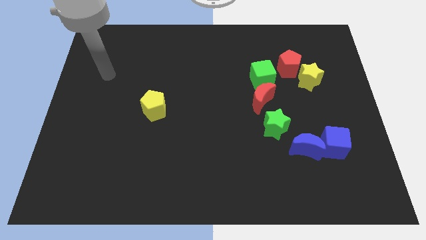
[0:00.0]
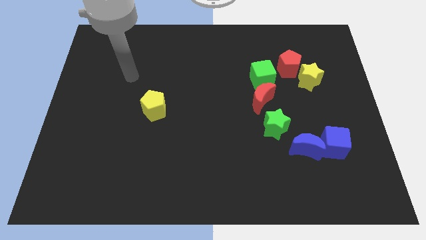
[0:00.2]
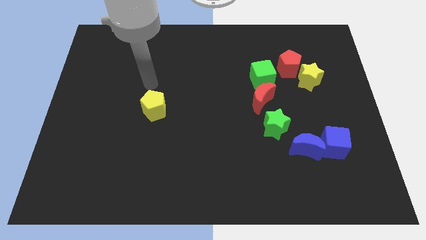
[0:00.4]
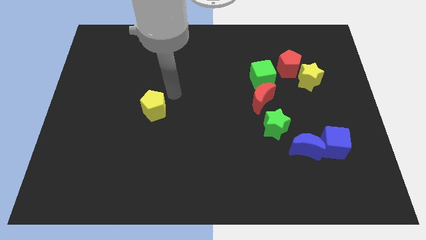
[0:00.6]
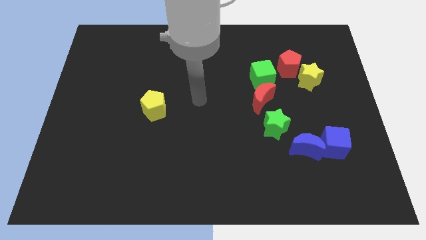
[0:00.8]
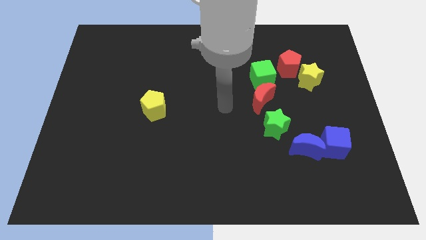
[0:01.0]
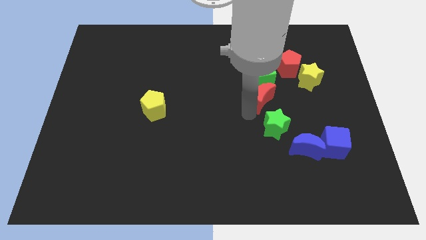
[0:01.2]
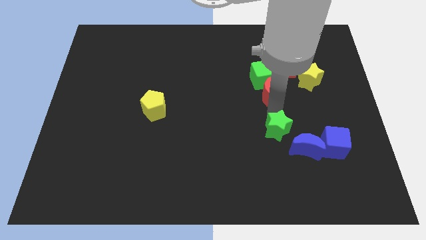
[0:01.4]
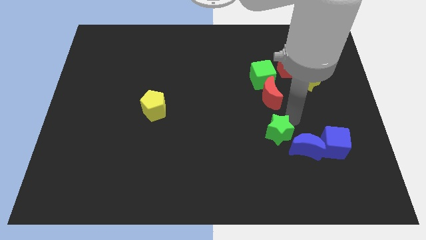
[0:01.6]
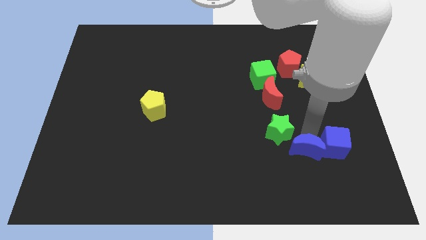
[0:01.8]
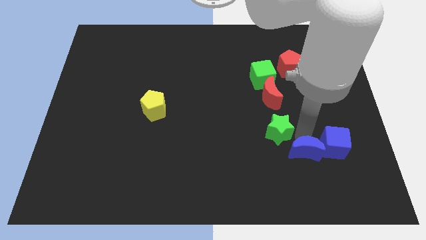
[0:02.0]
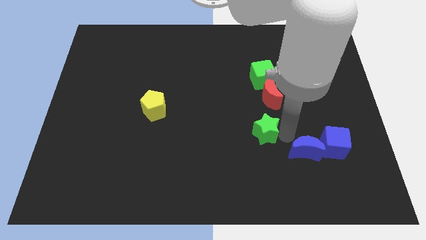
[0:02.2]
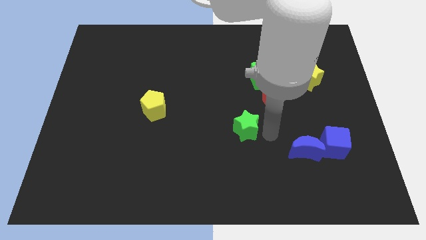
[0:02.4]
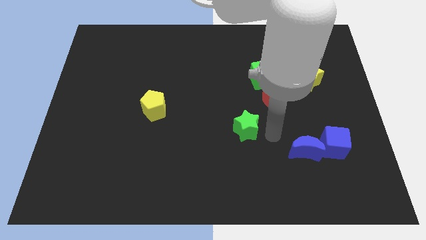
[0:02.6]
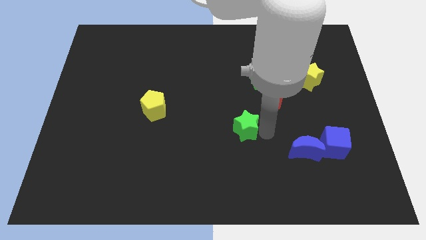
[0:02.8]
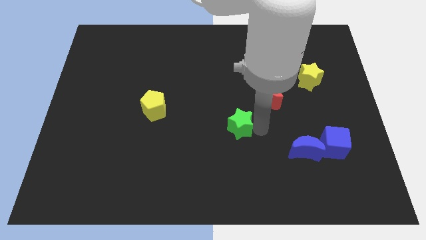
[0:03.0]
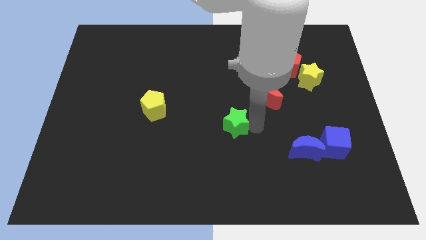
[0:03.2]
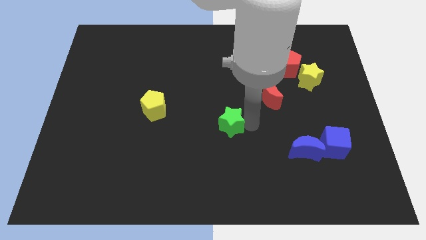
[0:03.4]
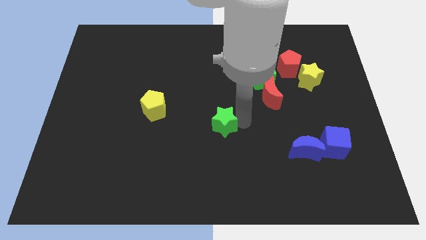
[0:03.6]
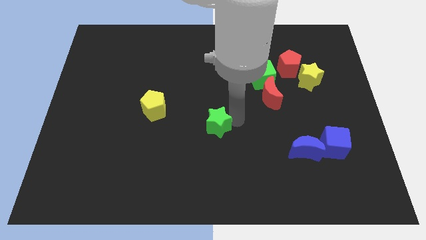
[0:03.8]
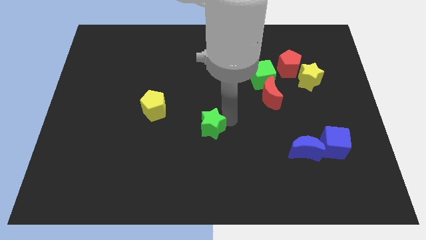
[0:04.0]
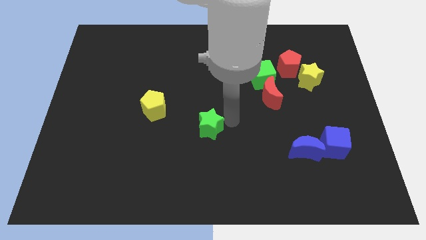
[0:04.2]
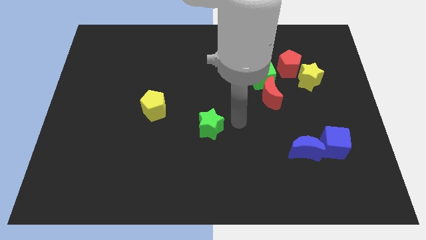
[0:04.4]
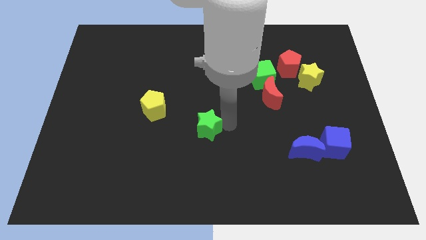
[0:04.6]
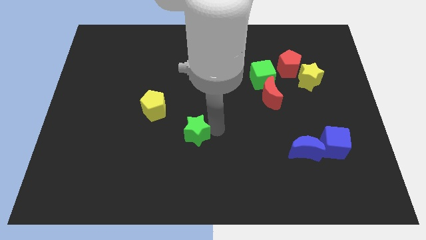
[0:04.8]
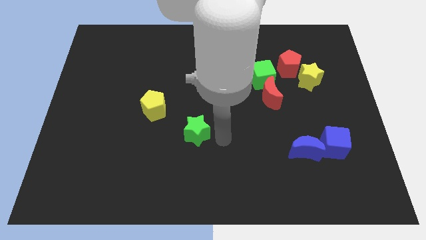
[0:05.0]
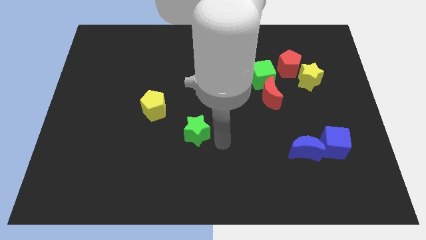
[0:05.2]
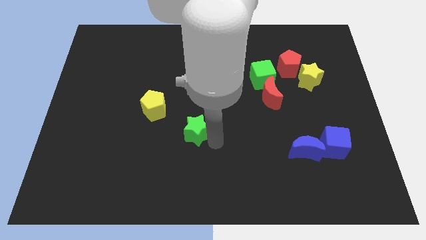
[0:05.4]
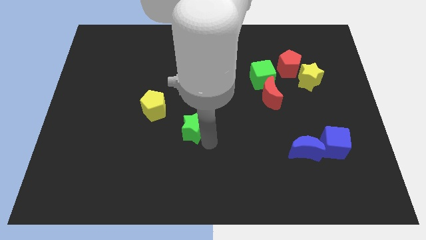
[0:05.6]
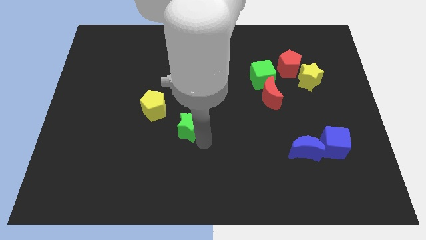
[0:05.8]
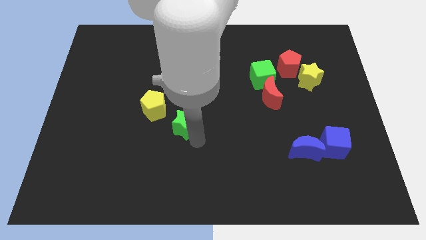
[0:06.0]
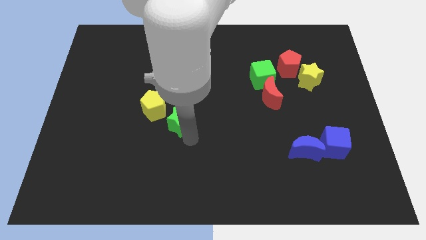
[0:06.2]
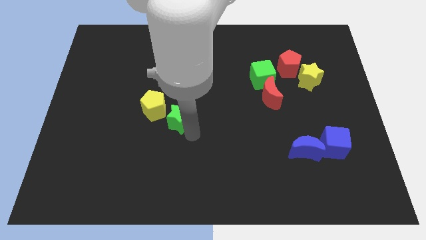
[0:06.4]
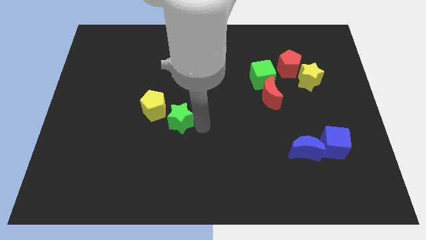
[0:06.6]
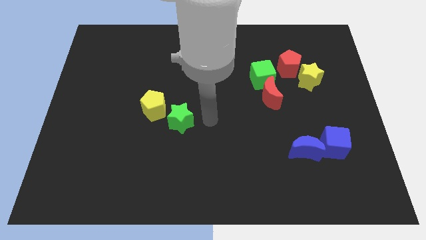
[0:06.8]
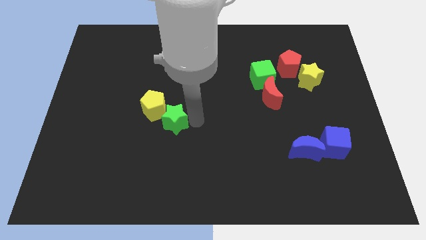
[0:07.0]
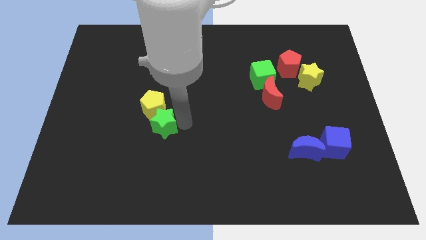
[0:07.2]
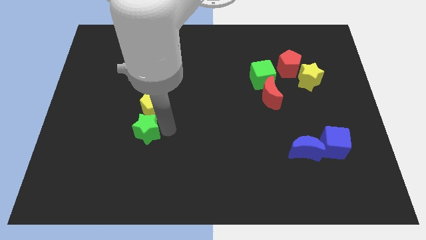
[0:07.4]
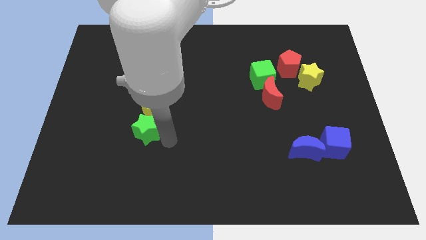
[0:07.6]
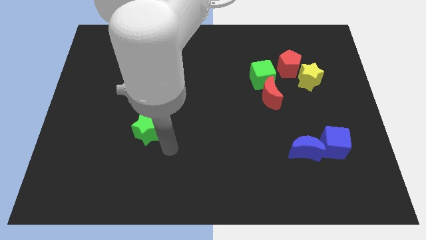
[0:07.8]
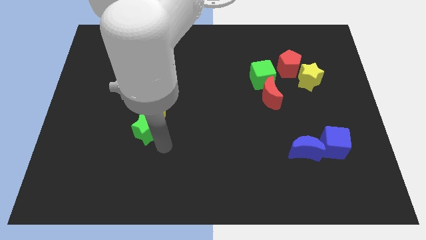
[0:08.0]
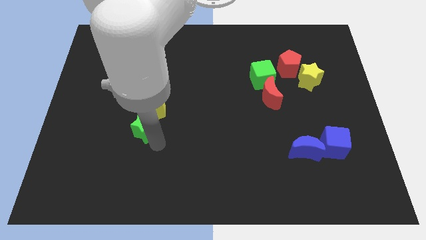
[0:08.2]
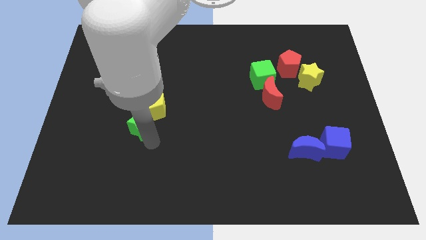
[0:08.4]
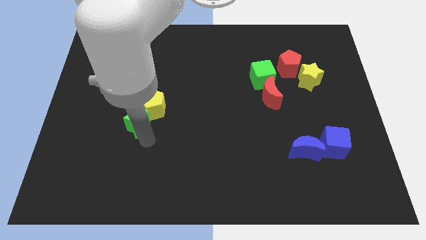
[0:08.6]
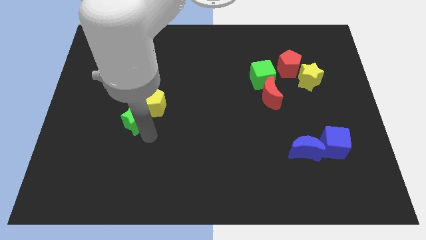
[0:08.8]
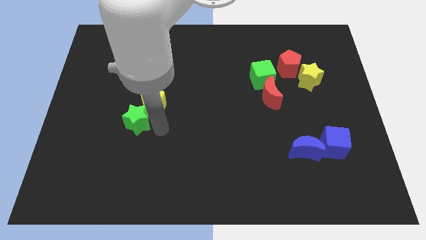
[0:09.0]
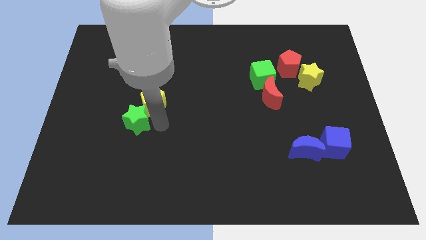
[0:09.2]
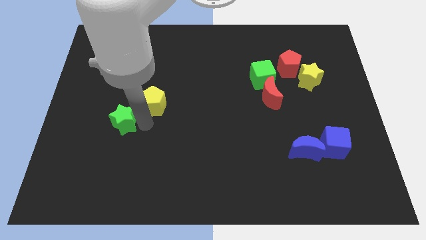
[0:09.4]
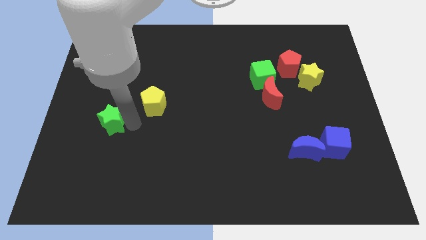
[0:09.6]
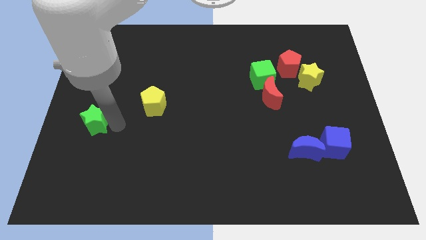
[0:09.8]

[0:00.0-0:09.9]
push the green star to the center left

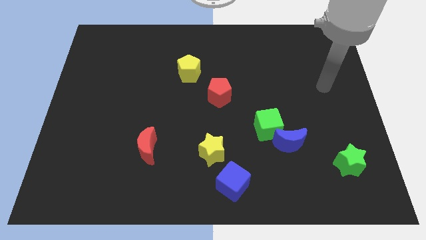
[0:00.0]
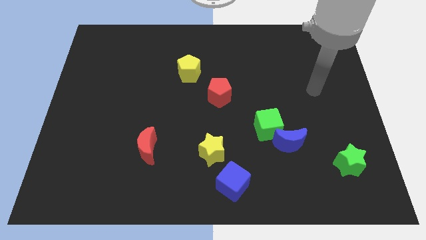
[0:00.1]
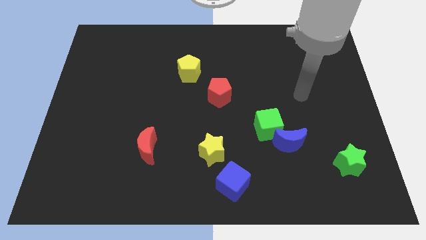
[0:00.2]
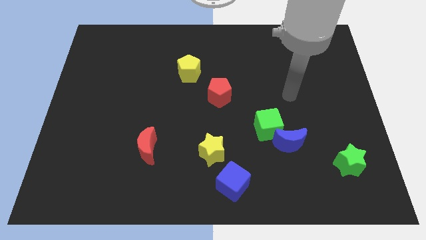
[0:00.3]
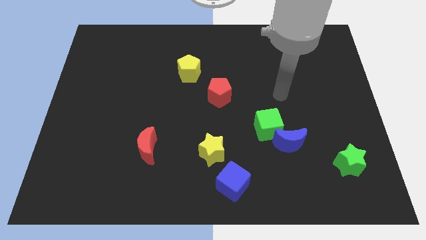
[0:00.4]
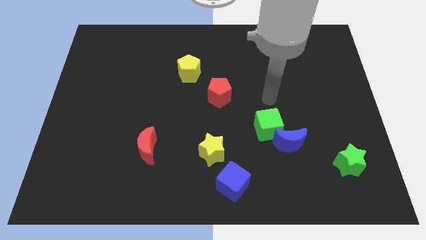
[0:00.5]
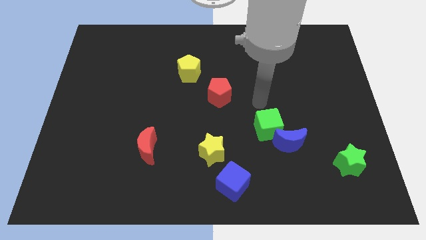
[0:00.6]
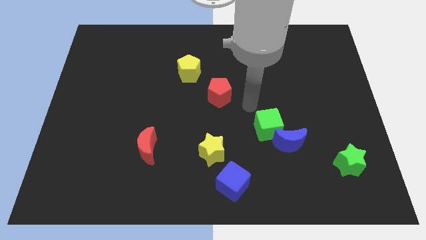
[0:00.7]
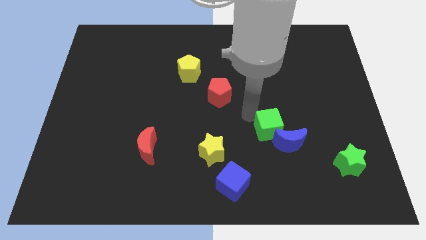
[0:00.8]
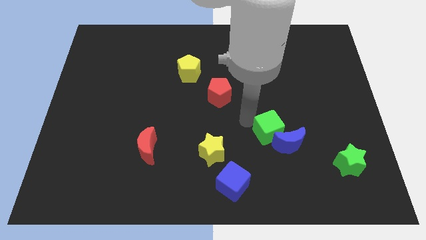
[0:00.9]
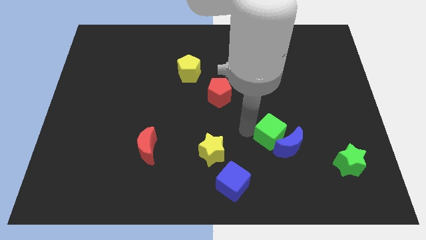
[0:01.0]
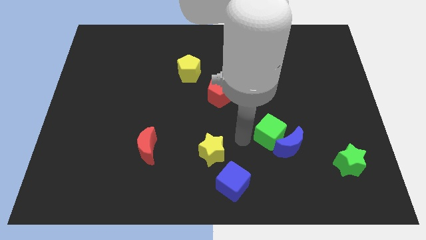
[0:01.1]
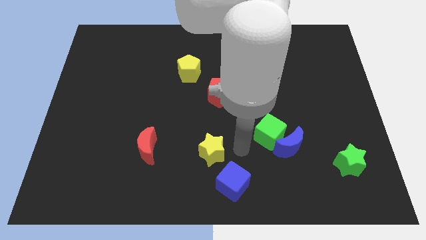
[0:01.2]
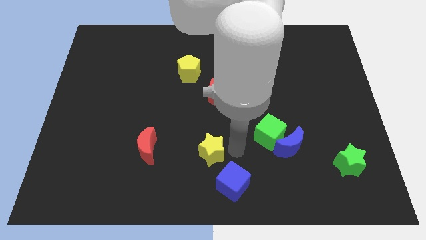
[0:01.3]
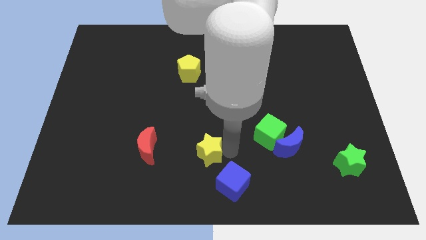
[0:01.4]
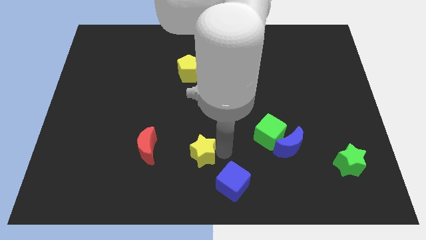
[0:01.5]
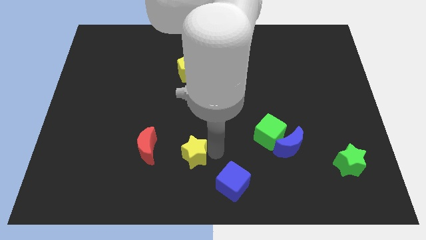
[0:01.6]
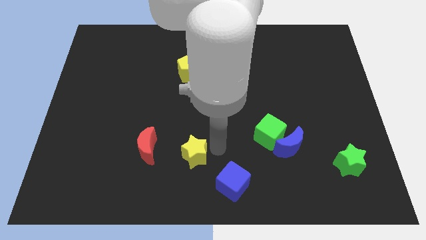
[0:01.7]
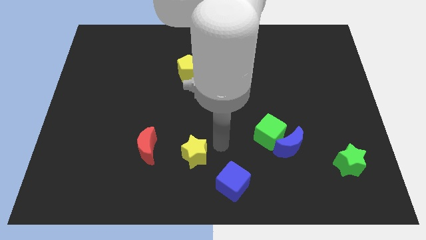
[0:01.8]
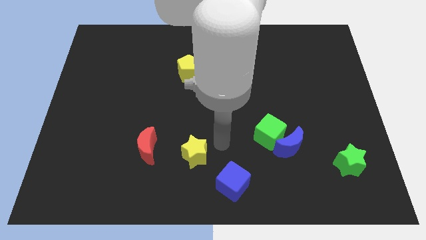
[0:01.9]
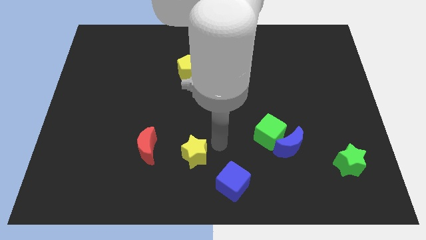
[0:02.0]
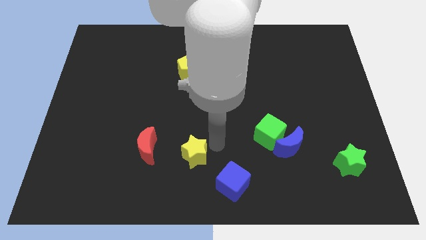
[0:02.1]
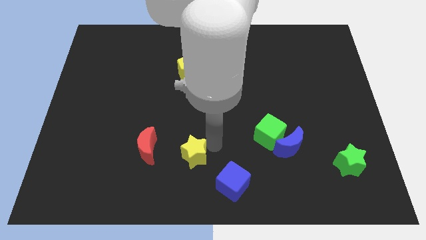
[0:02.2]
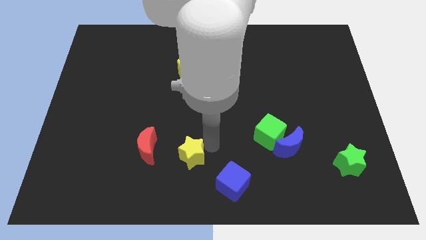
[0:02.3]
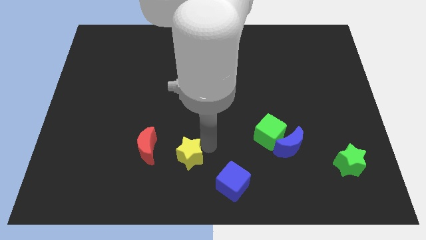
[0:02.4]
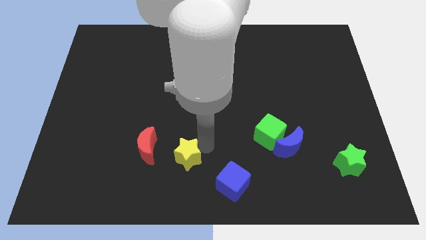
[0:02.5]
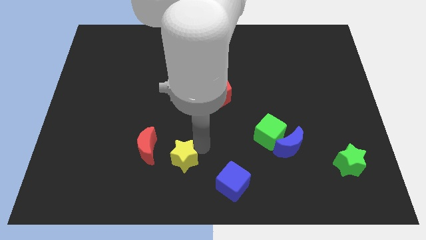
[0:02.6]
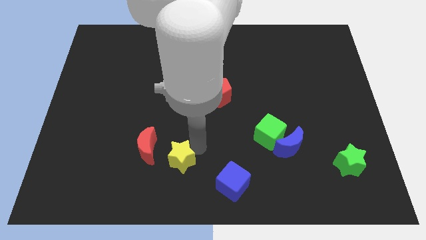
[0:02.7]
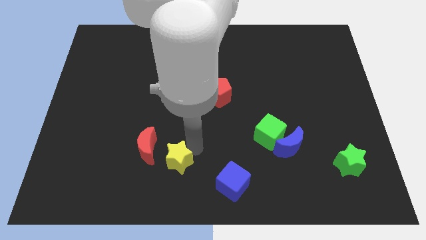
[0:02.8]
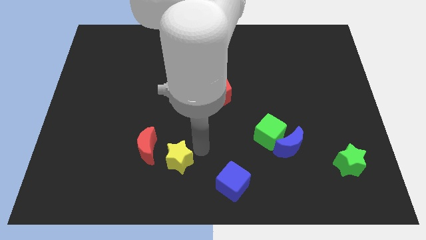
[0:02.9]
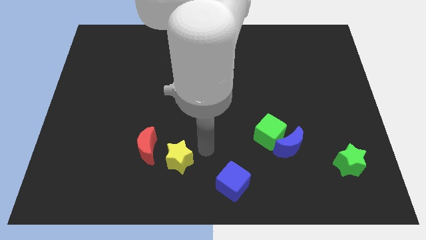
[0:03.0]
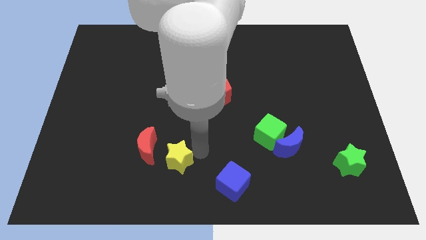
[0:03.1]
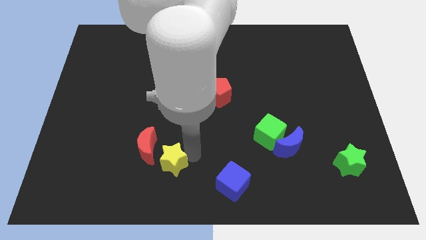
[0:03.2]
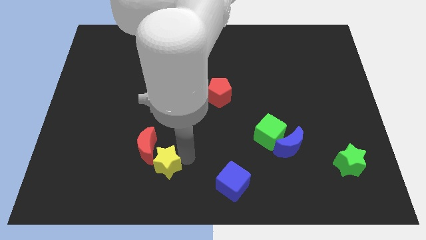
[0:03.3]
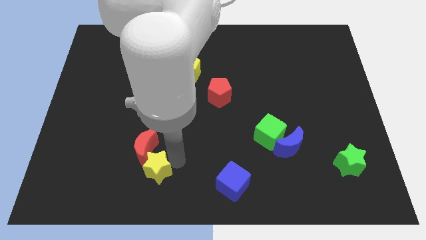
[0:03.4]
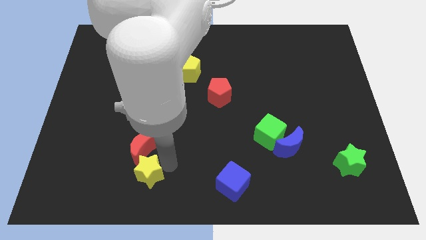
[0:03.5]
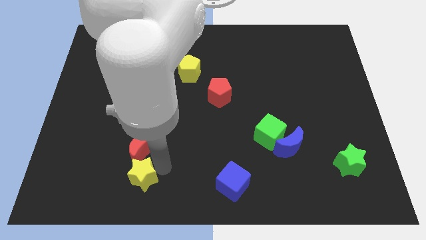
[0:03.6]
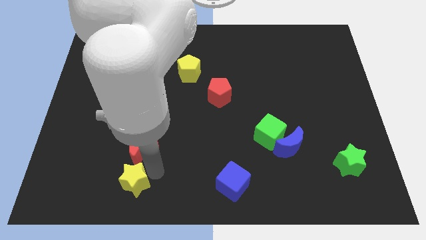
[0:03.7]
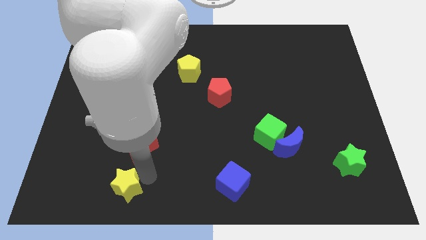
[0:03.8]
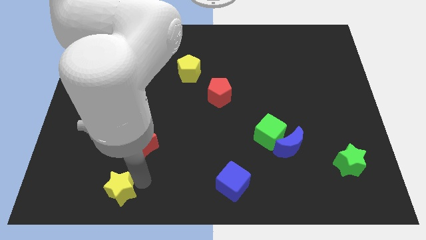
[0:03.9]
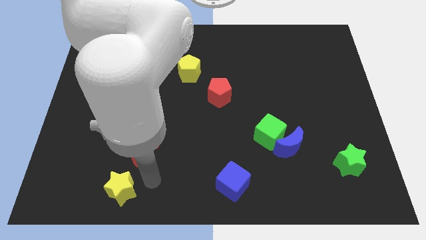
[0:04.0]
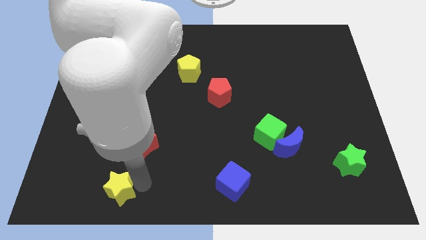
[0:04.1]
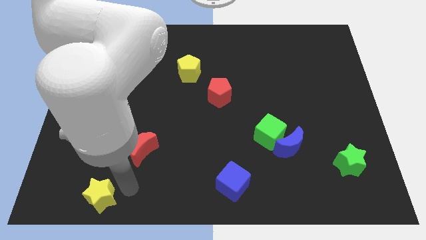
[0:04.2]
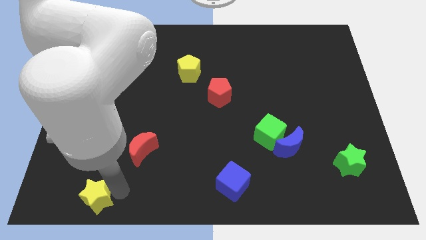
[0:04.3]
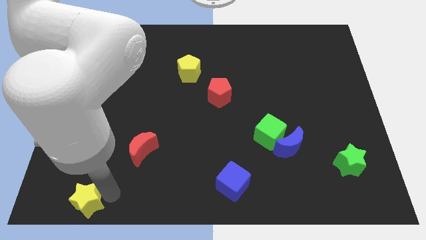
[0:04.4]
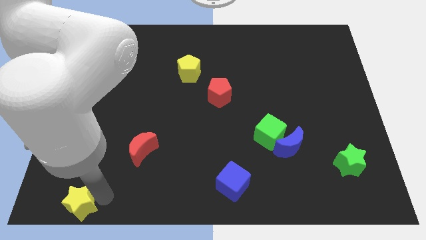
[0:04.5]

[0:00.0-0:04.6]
move the yellow star to the lower left corner
